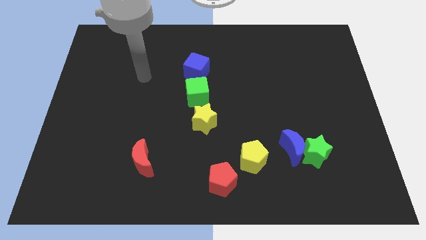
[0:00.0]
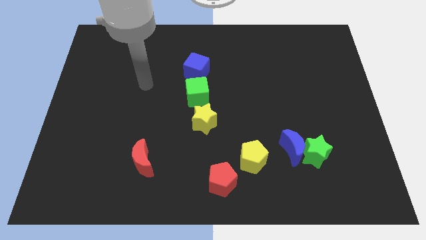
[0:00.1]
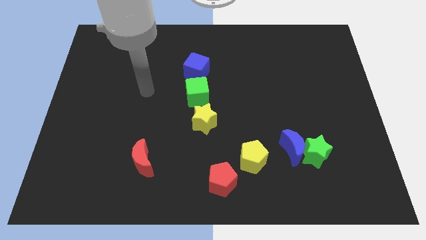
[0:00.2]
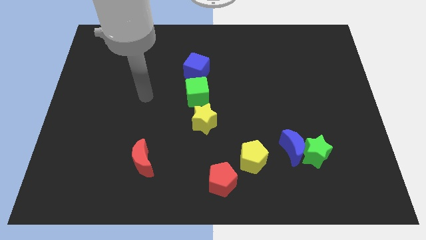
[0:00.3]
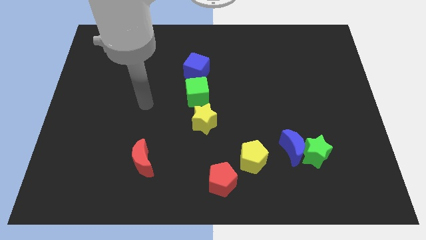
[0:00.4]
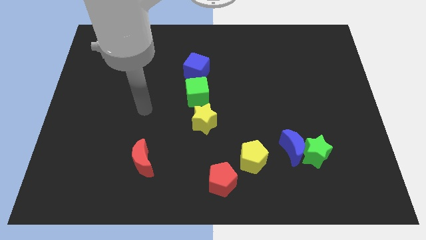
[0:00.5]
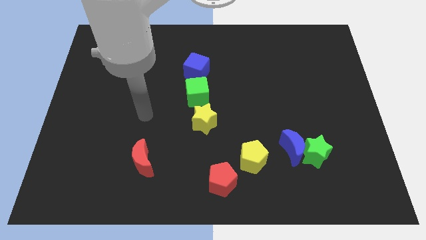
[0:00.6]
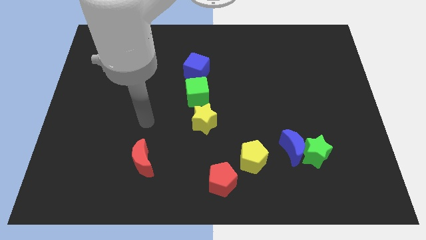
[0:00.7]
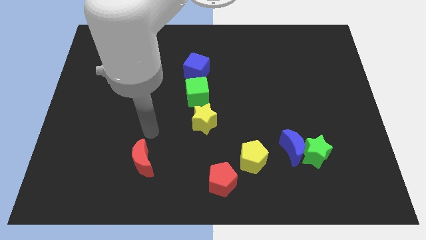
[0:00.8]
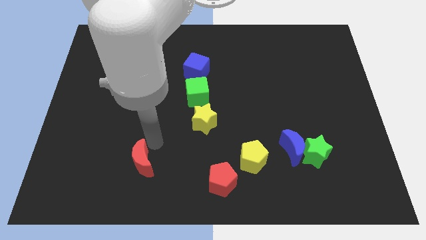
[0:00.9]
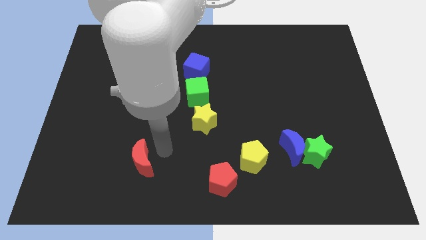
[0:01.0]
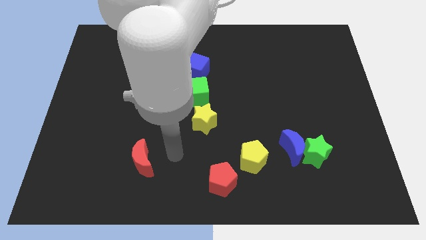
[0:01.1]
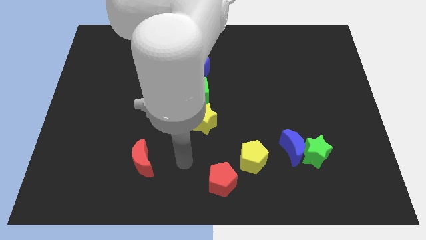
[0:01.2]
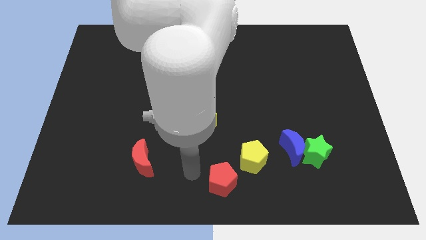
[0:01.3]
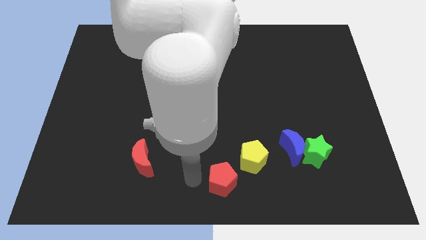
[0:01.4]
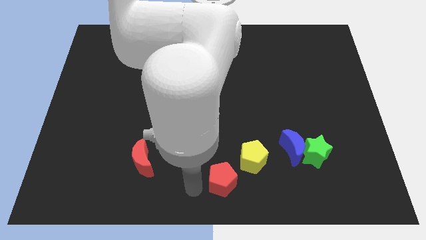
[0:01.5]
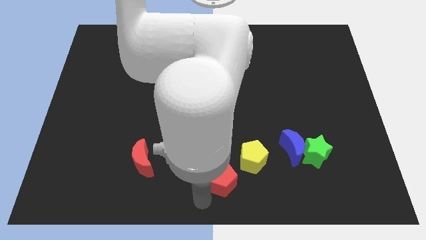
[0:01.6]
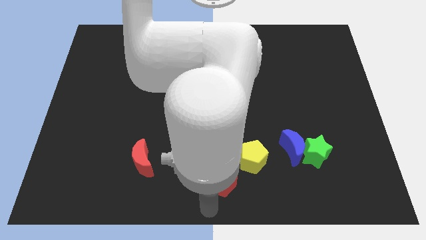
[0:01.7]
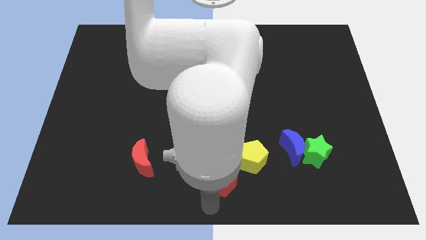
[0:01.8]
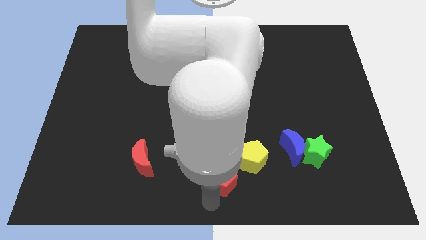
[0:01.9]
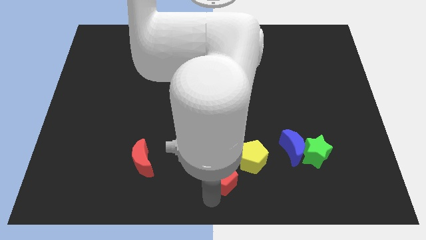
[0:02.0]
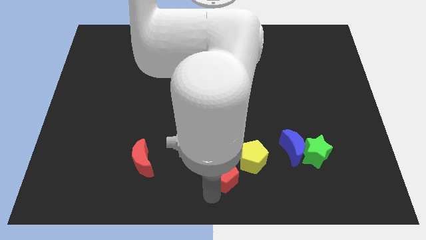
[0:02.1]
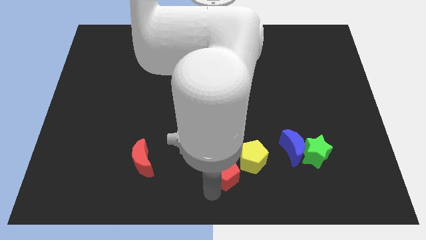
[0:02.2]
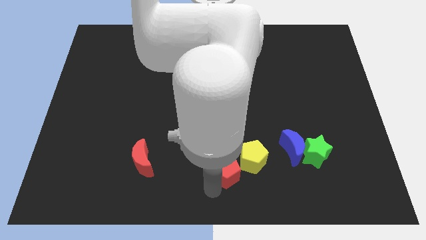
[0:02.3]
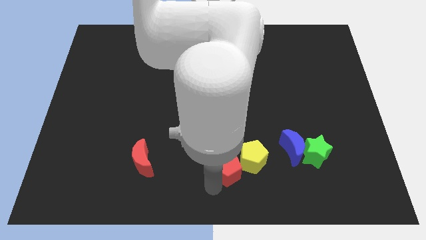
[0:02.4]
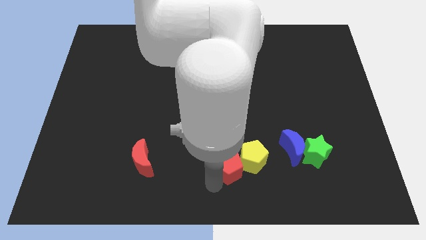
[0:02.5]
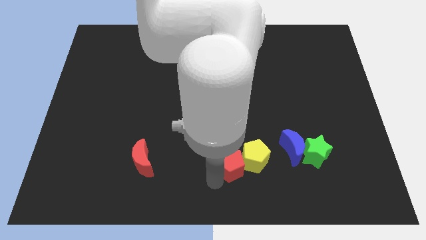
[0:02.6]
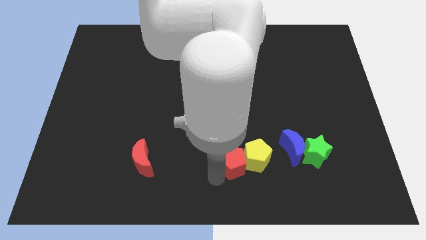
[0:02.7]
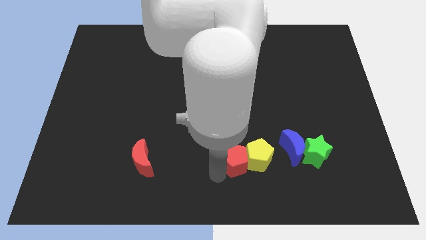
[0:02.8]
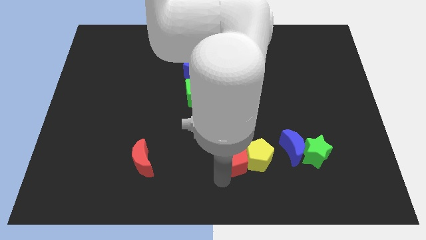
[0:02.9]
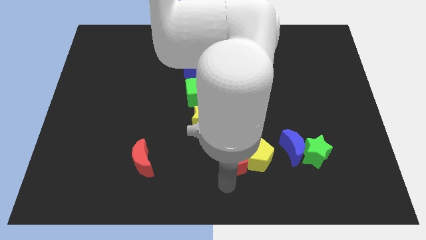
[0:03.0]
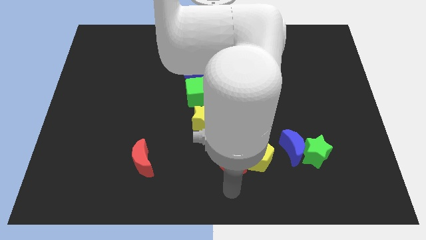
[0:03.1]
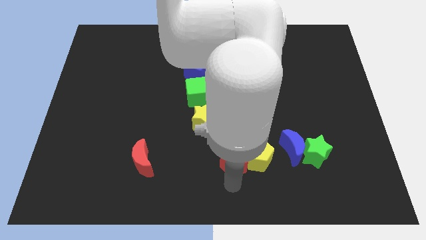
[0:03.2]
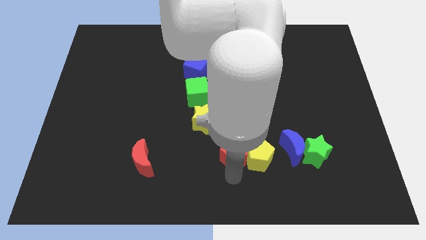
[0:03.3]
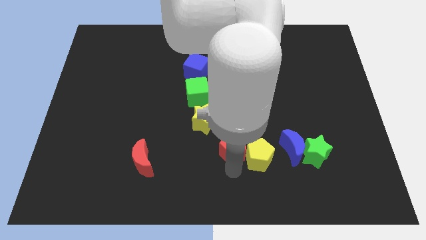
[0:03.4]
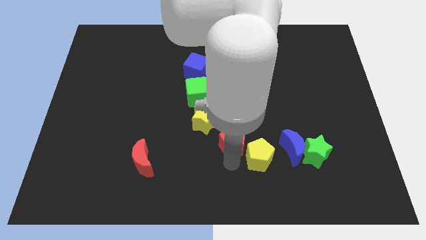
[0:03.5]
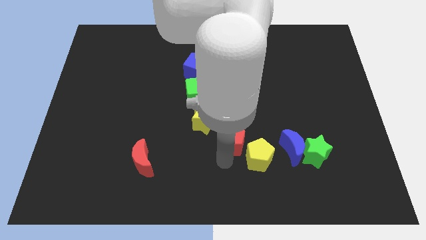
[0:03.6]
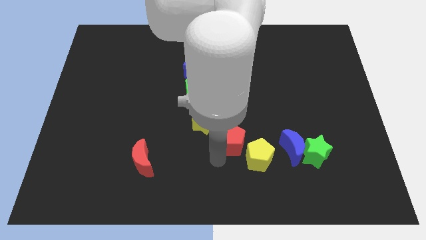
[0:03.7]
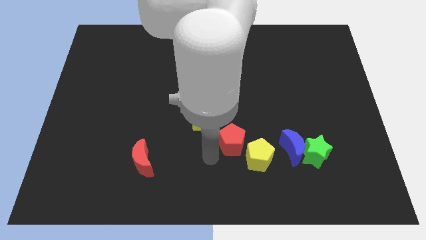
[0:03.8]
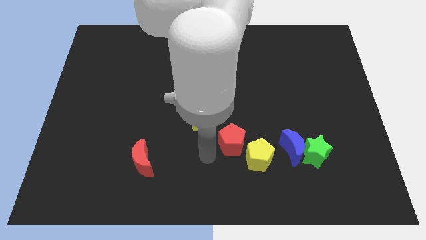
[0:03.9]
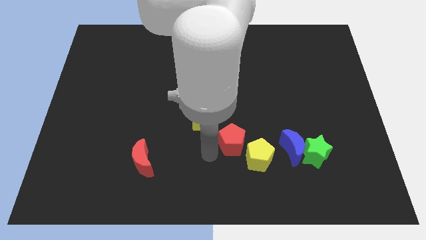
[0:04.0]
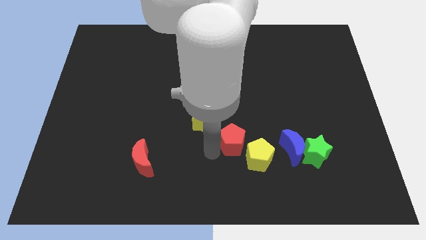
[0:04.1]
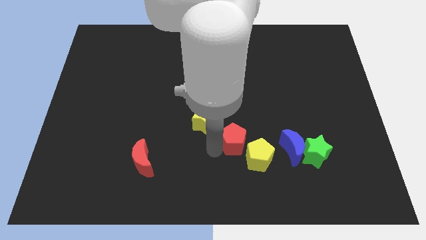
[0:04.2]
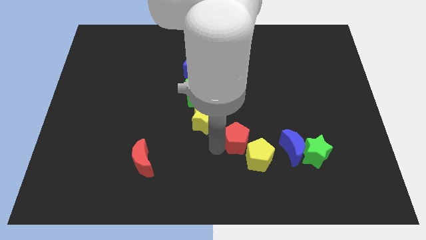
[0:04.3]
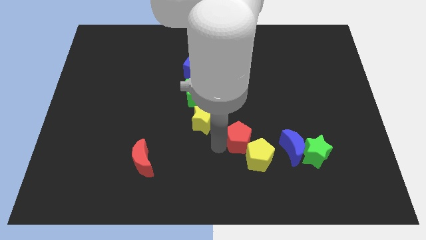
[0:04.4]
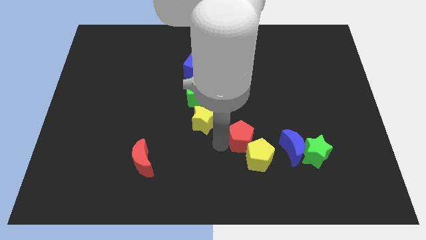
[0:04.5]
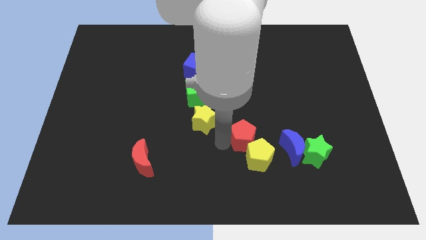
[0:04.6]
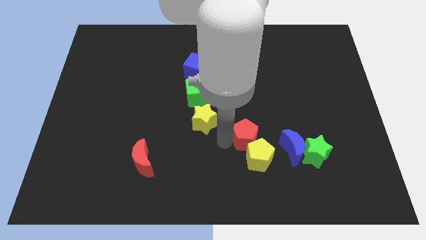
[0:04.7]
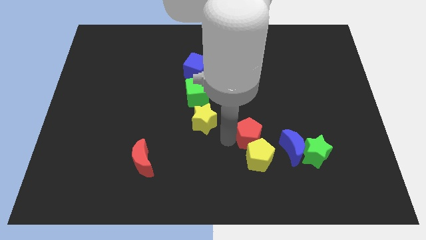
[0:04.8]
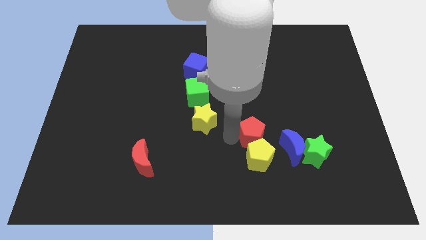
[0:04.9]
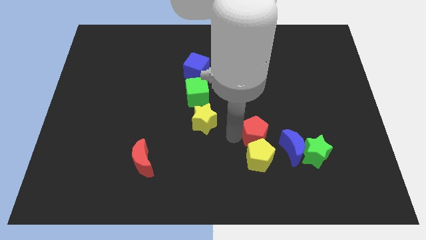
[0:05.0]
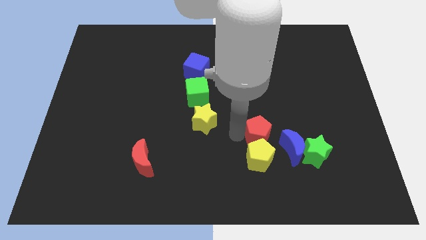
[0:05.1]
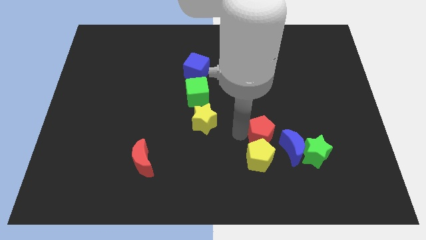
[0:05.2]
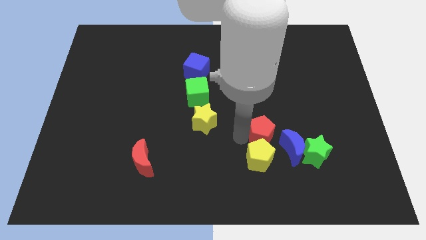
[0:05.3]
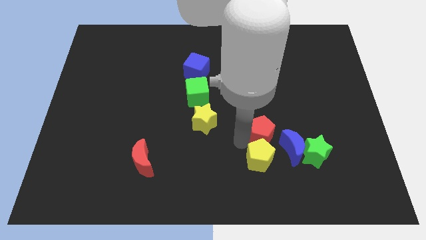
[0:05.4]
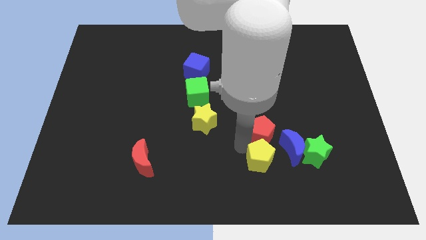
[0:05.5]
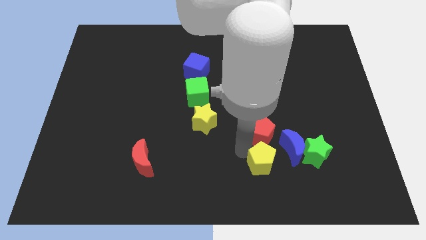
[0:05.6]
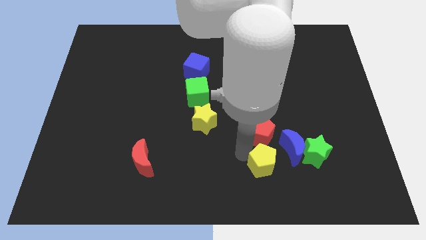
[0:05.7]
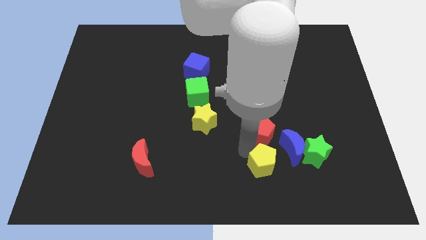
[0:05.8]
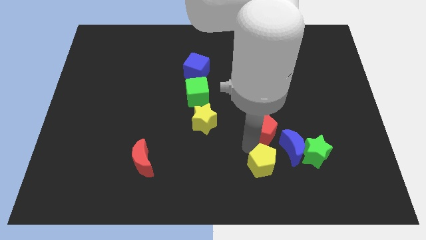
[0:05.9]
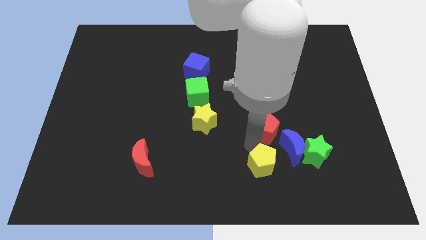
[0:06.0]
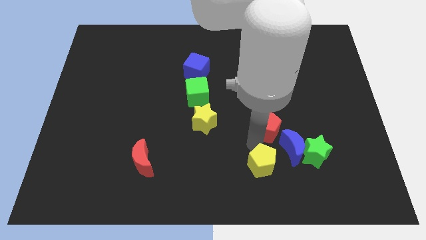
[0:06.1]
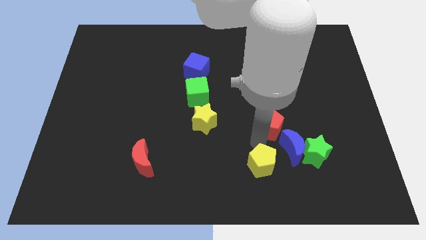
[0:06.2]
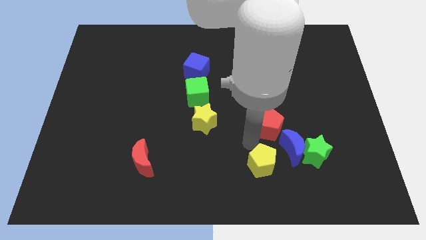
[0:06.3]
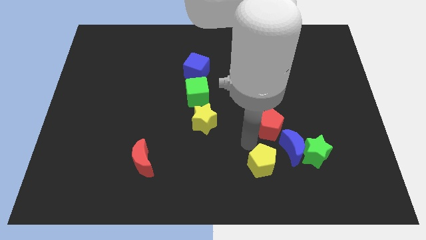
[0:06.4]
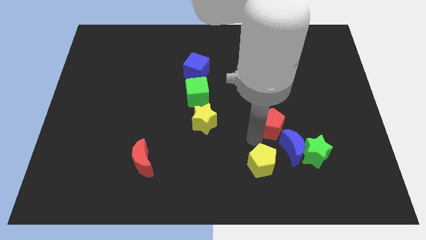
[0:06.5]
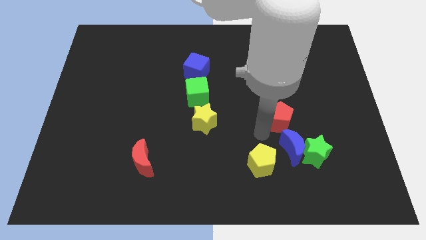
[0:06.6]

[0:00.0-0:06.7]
push the red pentagon diagonally up and right

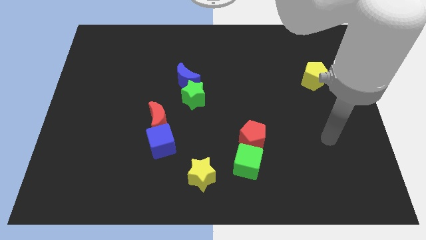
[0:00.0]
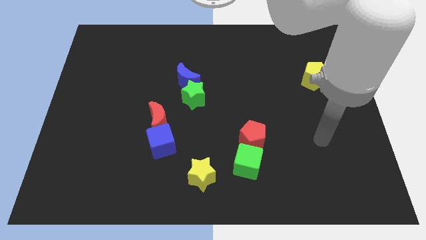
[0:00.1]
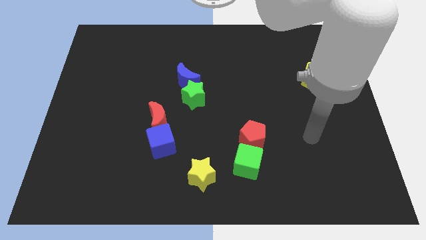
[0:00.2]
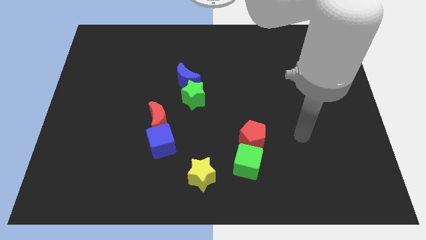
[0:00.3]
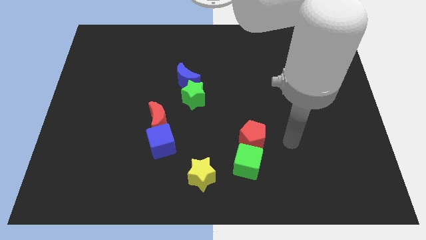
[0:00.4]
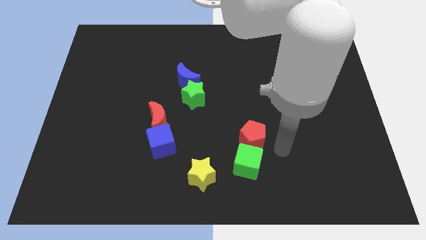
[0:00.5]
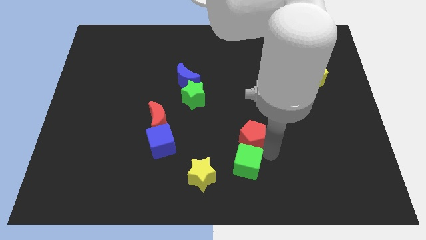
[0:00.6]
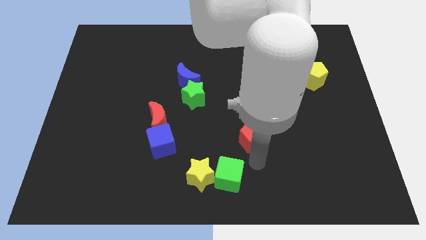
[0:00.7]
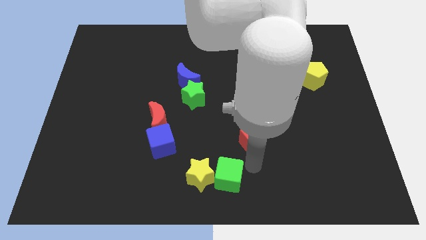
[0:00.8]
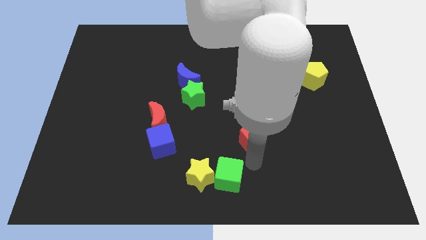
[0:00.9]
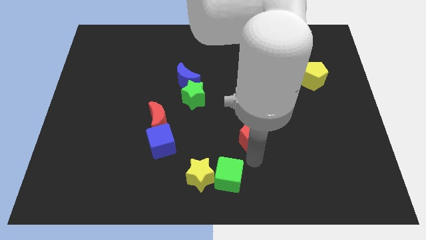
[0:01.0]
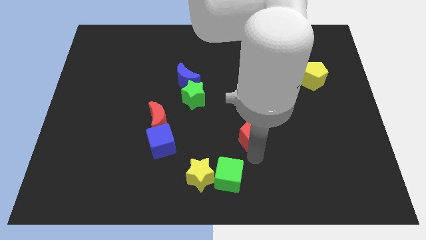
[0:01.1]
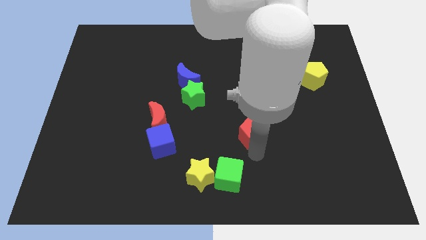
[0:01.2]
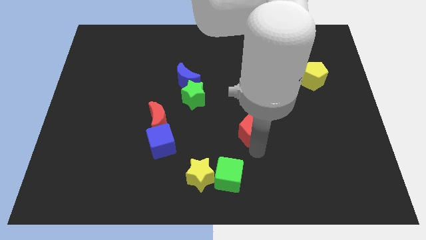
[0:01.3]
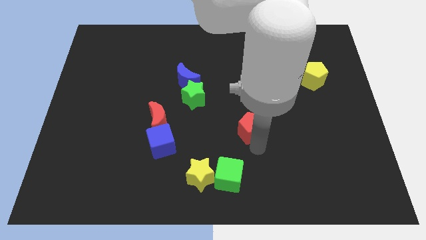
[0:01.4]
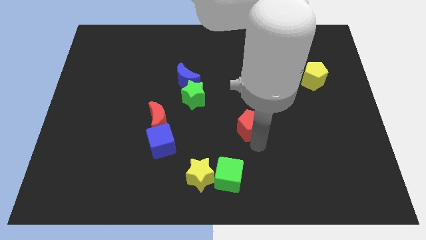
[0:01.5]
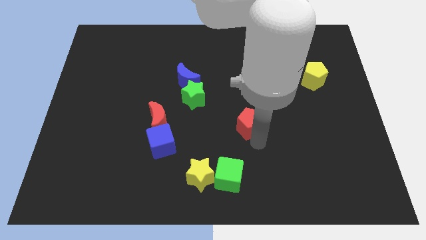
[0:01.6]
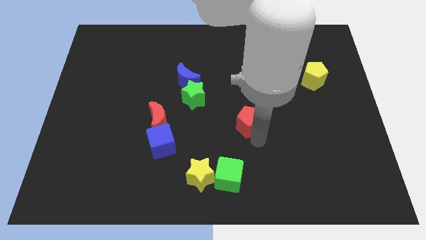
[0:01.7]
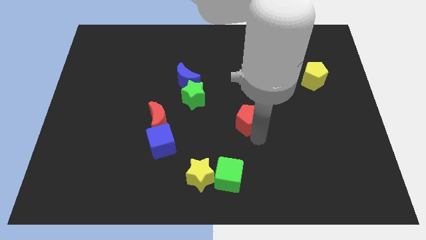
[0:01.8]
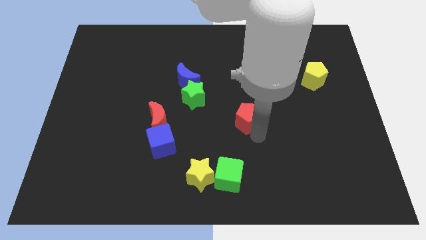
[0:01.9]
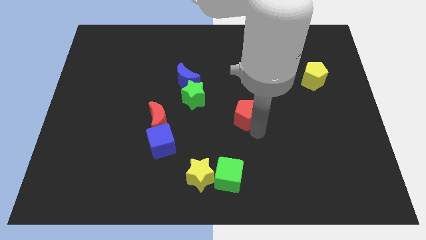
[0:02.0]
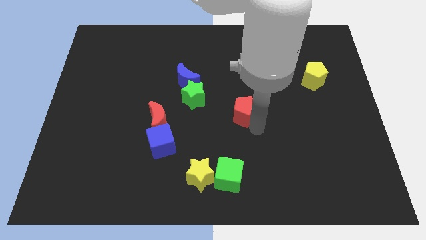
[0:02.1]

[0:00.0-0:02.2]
push the red pentagon a little bit upwards

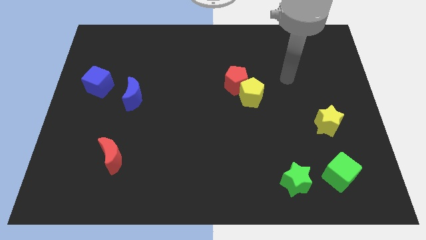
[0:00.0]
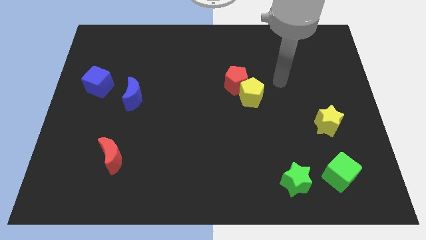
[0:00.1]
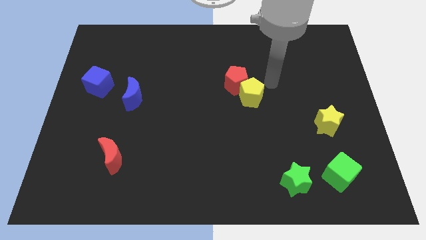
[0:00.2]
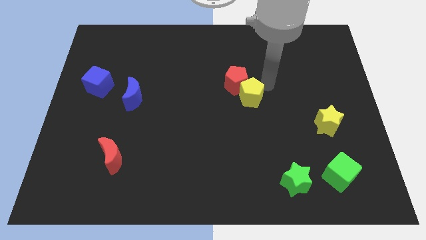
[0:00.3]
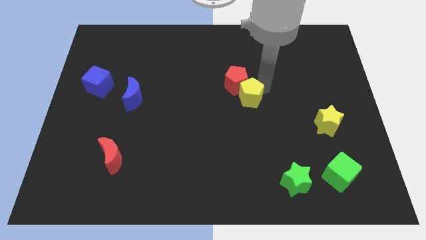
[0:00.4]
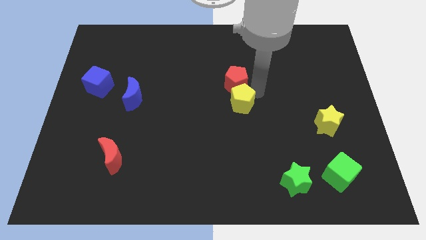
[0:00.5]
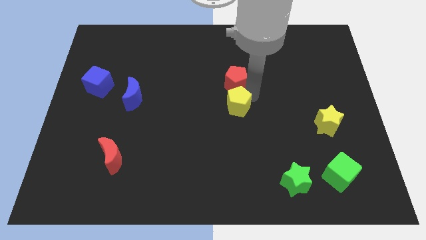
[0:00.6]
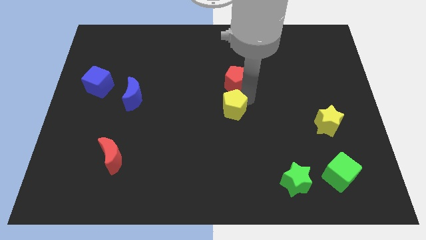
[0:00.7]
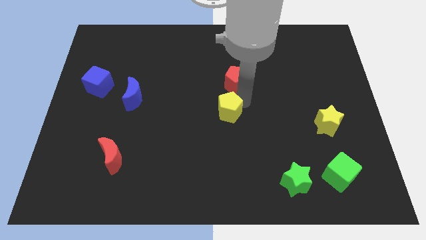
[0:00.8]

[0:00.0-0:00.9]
move the yellow pentagon a little down and left
